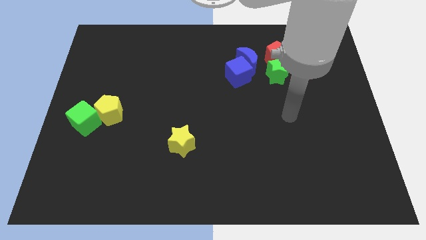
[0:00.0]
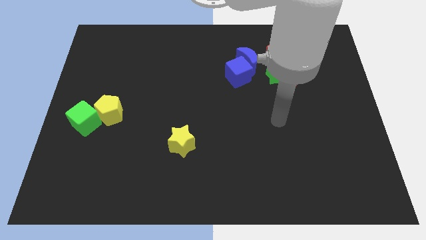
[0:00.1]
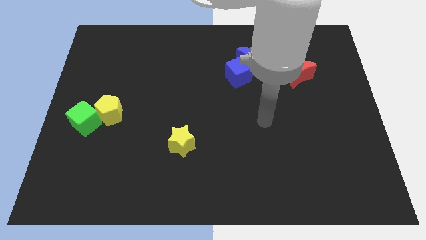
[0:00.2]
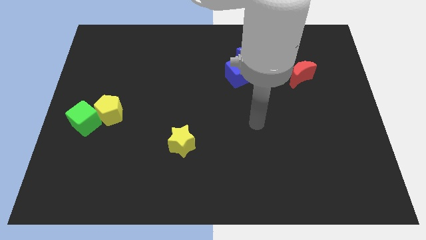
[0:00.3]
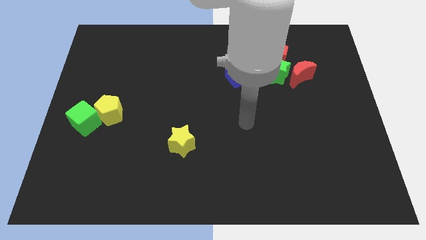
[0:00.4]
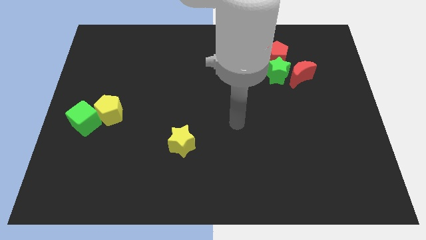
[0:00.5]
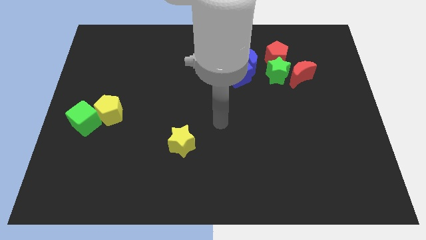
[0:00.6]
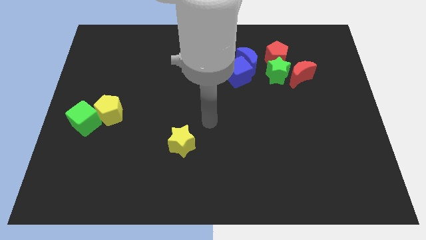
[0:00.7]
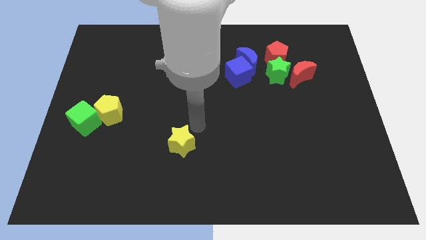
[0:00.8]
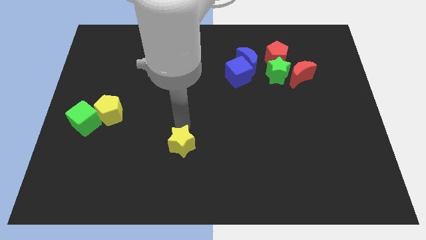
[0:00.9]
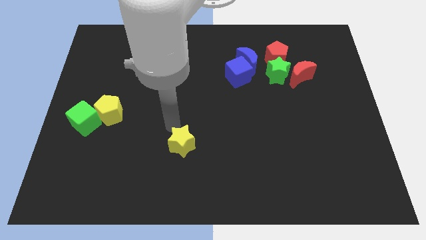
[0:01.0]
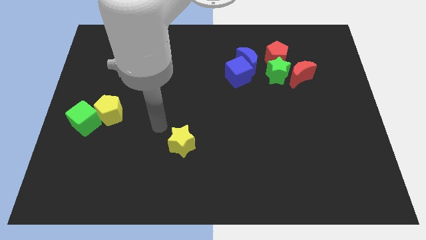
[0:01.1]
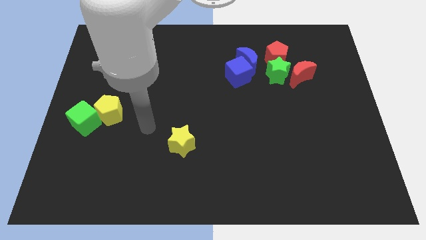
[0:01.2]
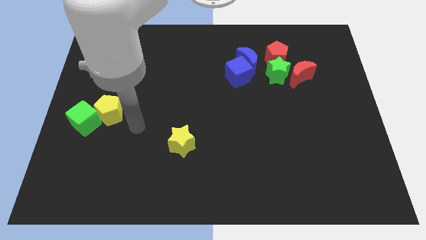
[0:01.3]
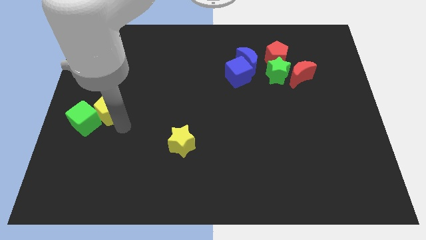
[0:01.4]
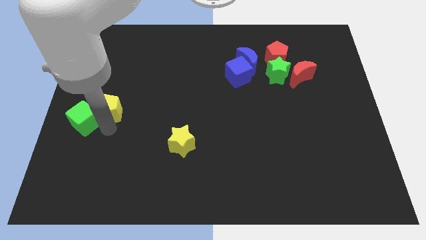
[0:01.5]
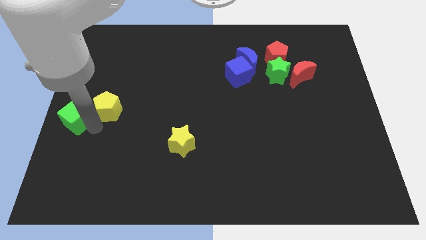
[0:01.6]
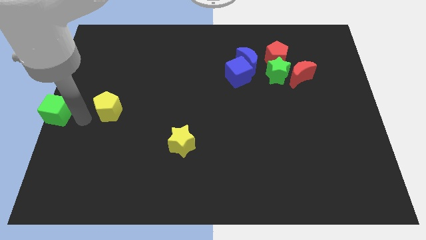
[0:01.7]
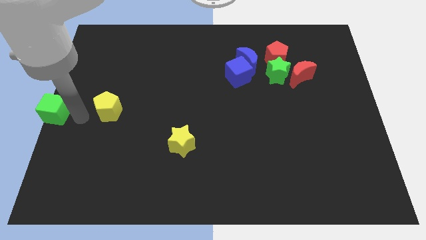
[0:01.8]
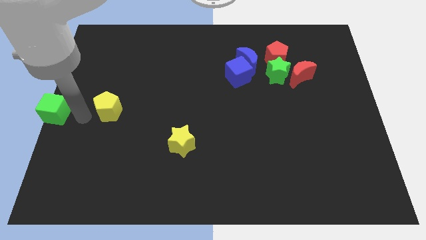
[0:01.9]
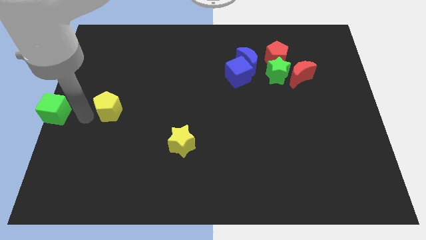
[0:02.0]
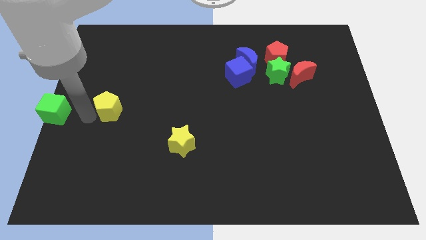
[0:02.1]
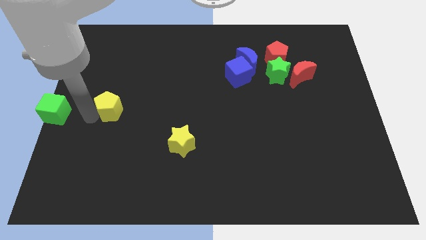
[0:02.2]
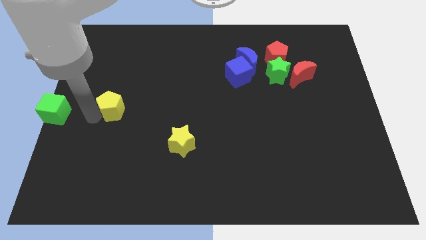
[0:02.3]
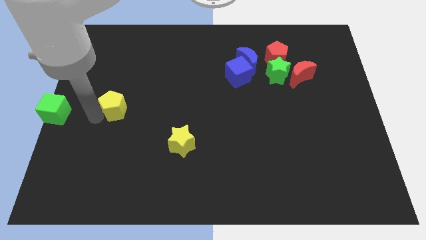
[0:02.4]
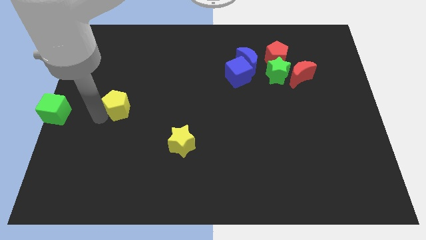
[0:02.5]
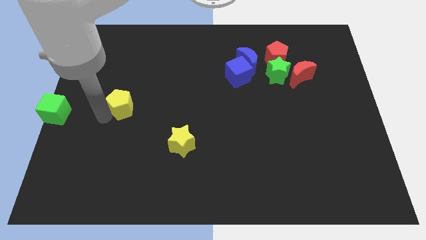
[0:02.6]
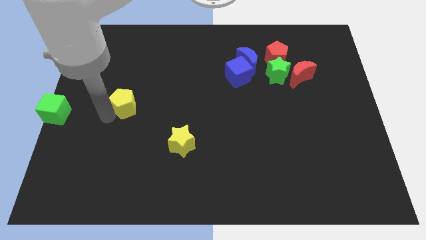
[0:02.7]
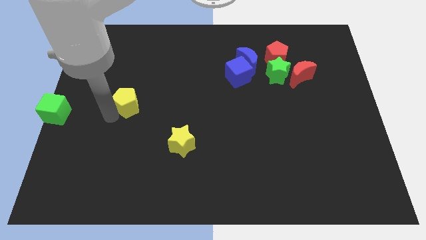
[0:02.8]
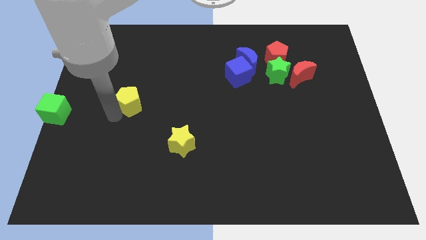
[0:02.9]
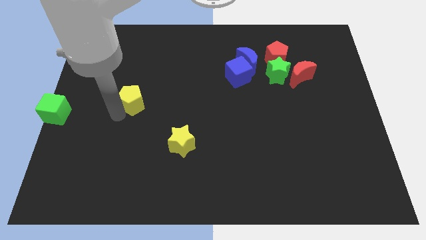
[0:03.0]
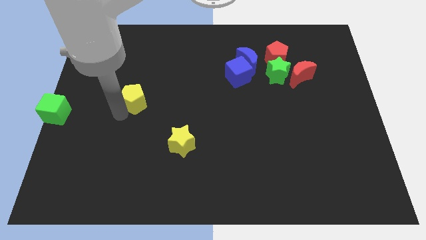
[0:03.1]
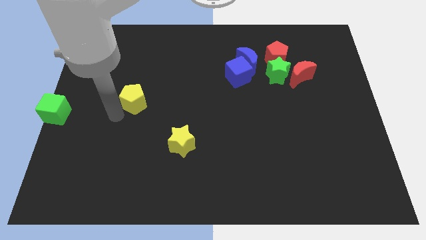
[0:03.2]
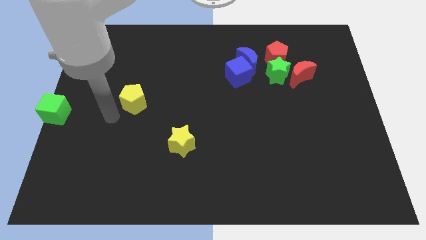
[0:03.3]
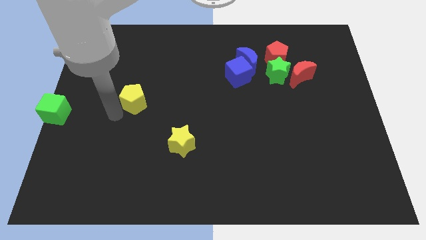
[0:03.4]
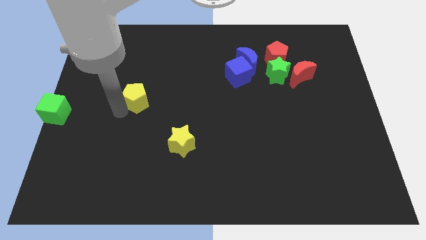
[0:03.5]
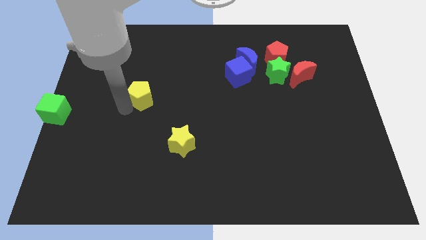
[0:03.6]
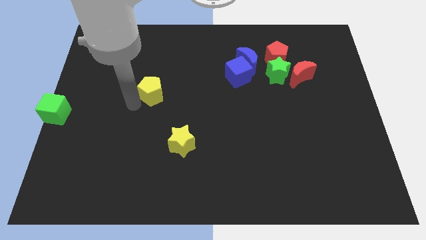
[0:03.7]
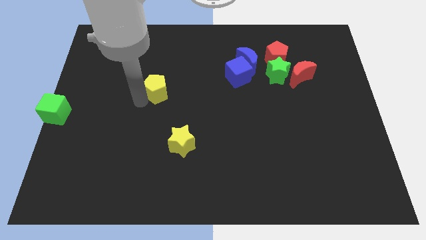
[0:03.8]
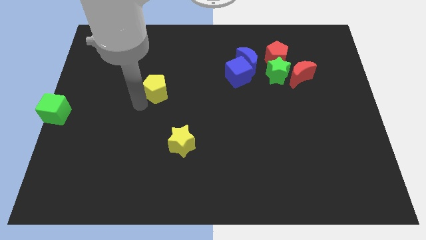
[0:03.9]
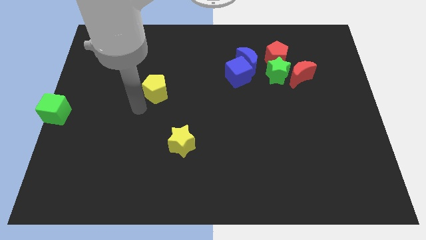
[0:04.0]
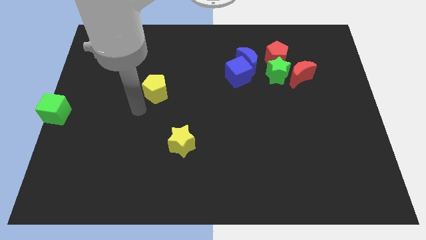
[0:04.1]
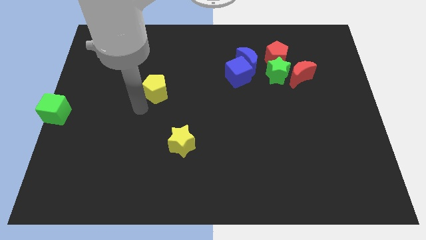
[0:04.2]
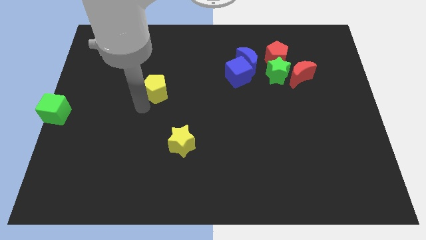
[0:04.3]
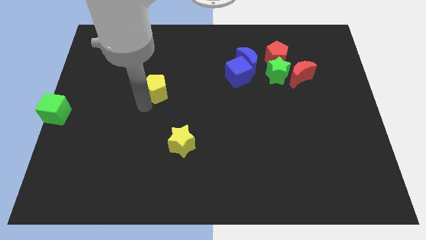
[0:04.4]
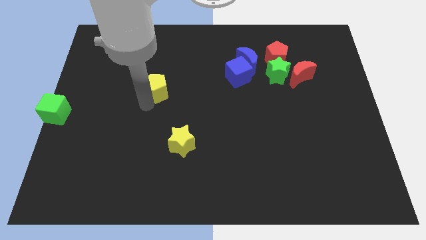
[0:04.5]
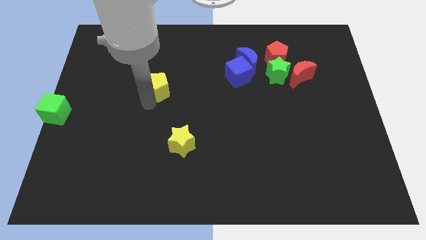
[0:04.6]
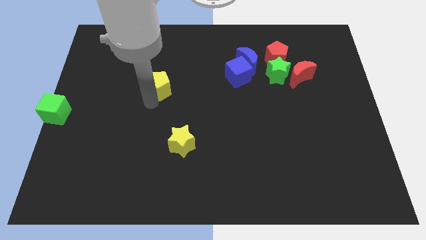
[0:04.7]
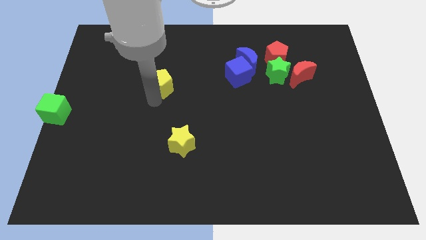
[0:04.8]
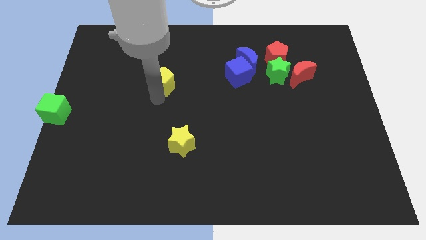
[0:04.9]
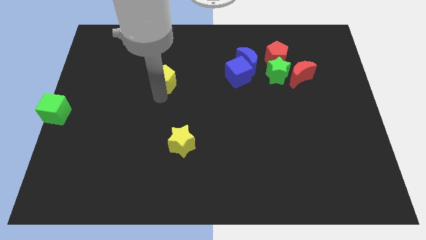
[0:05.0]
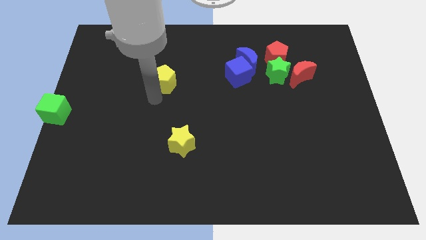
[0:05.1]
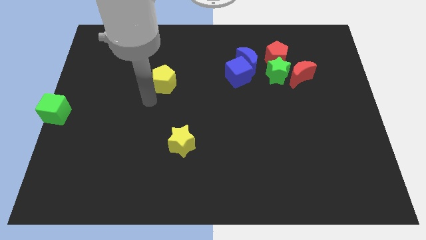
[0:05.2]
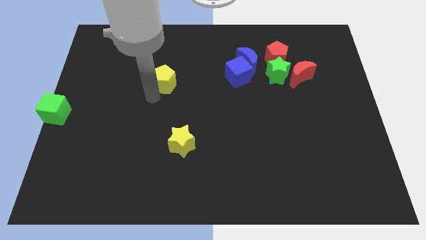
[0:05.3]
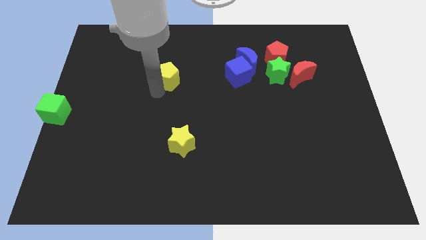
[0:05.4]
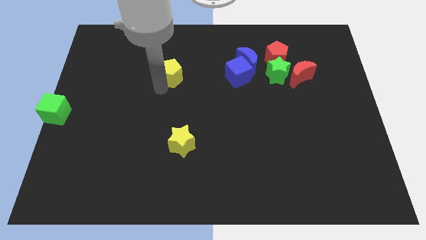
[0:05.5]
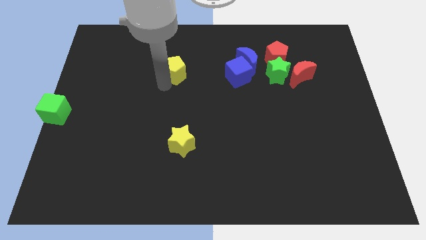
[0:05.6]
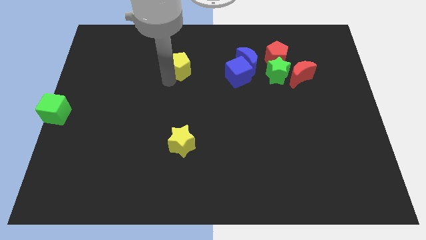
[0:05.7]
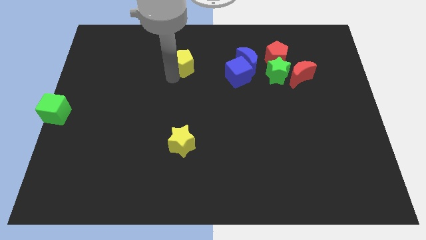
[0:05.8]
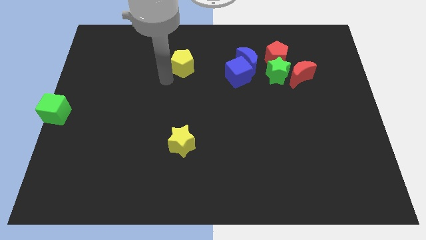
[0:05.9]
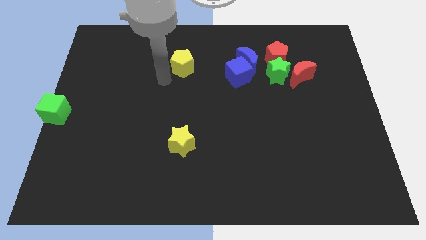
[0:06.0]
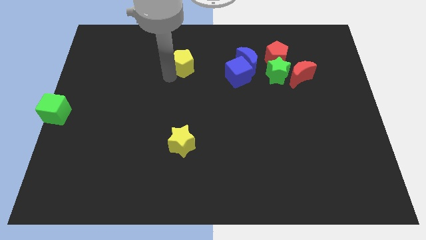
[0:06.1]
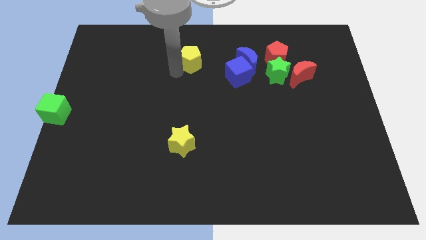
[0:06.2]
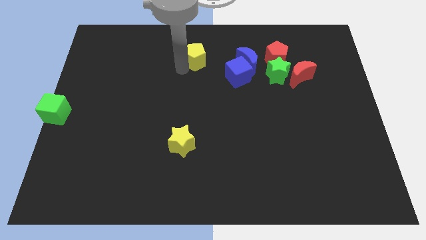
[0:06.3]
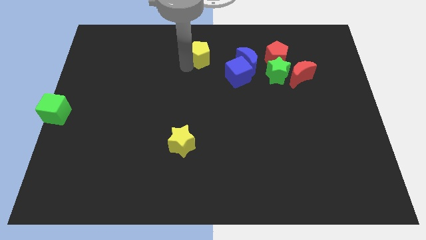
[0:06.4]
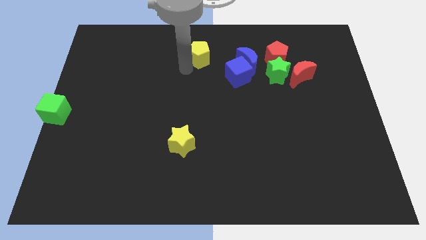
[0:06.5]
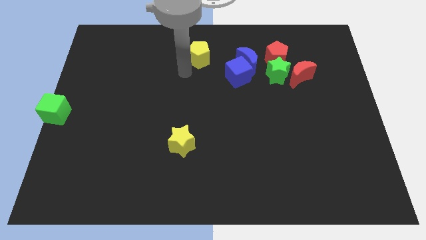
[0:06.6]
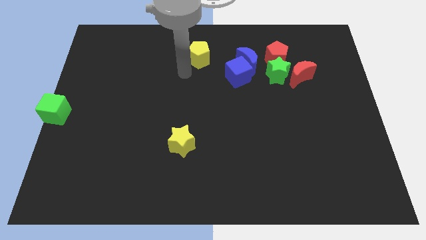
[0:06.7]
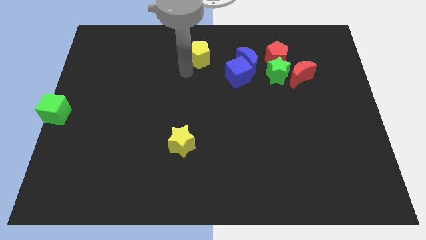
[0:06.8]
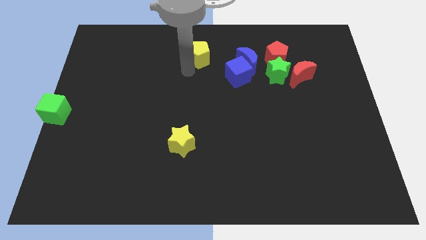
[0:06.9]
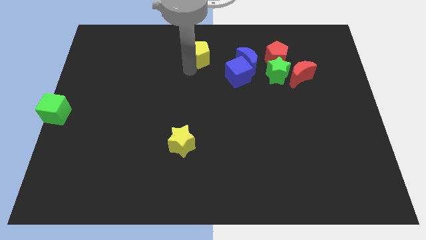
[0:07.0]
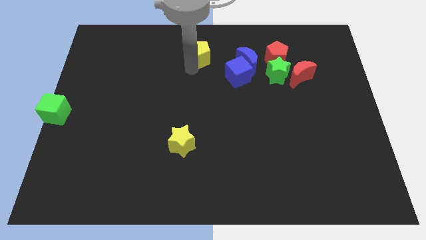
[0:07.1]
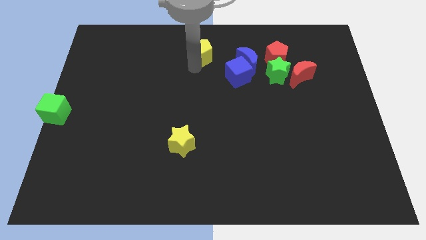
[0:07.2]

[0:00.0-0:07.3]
move the yellow pentagon to the towards your base
